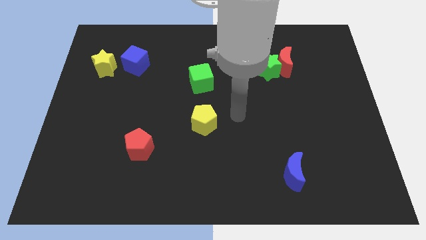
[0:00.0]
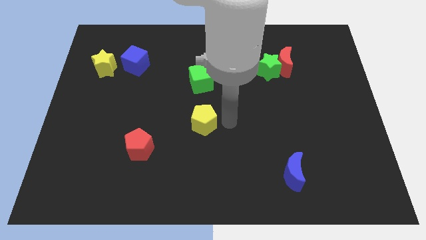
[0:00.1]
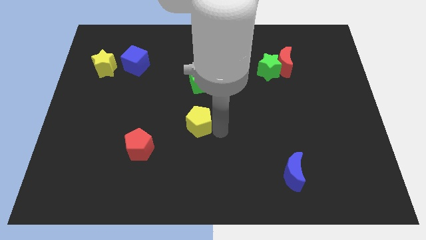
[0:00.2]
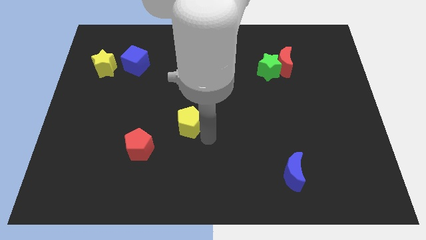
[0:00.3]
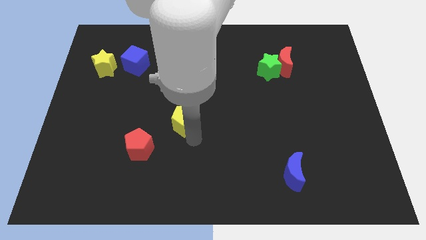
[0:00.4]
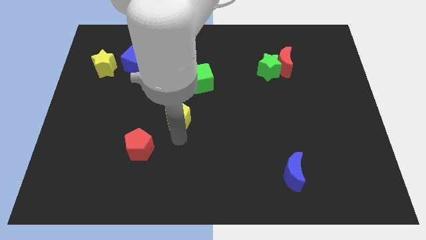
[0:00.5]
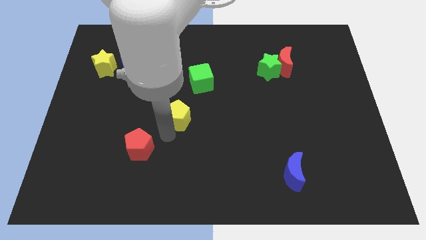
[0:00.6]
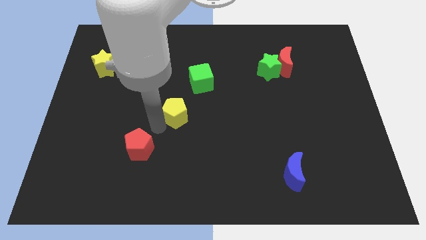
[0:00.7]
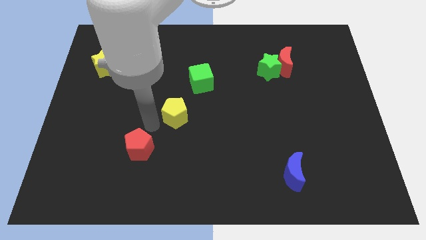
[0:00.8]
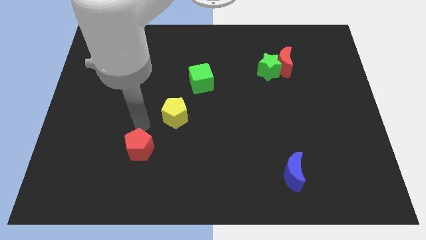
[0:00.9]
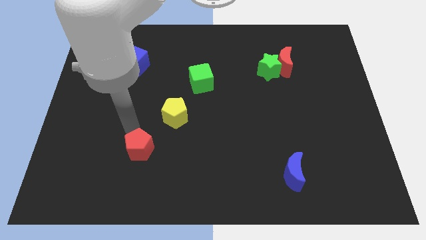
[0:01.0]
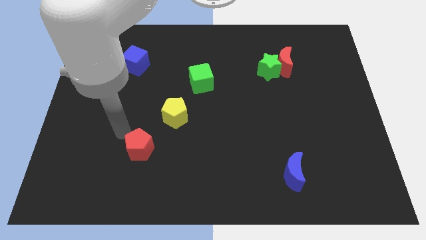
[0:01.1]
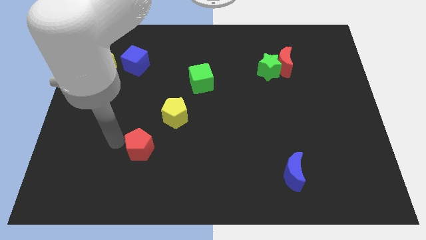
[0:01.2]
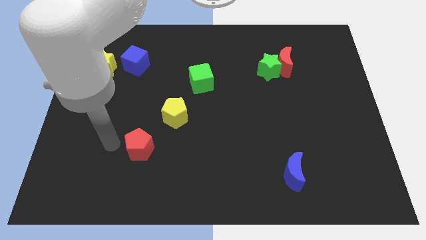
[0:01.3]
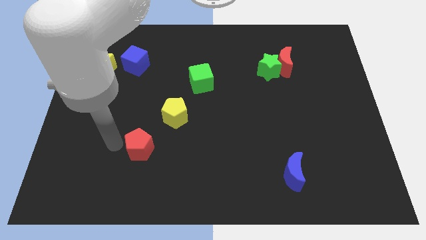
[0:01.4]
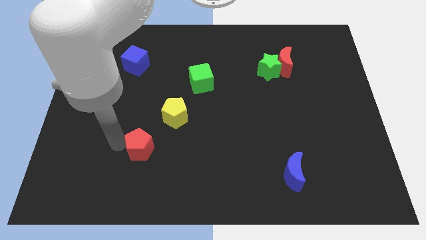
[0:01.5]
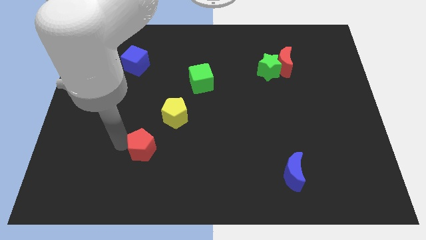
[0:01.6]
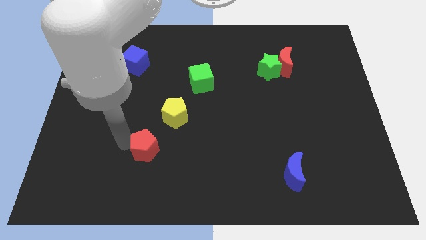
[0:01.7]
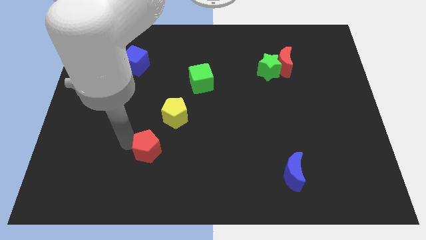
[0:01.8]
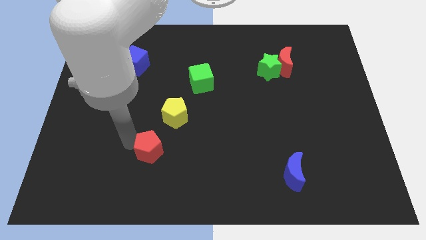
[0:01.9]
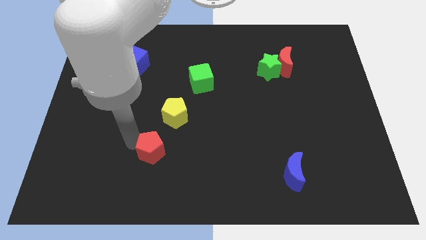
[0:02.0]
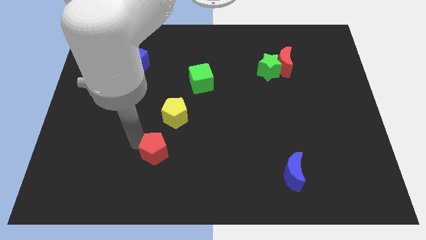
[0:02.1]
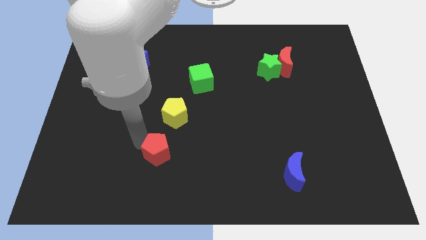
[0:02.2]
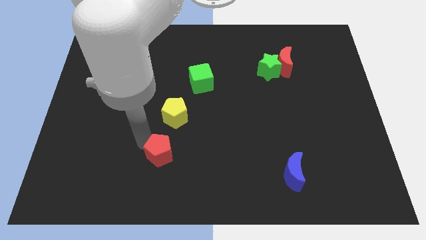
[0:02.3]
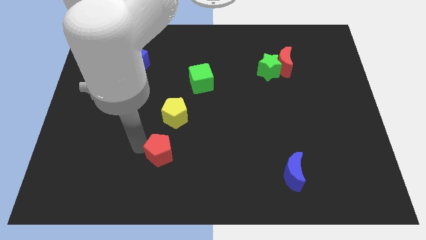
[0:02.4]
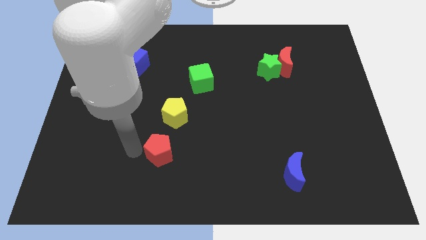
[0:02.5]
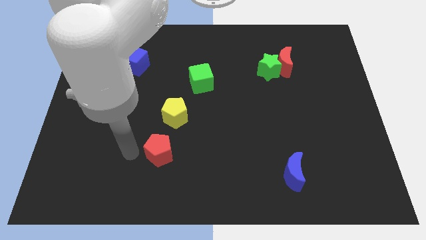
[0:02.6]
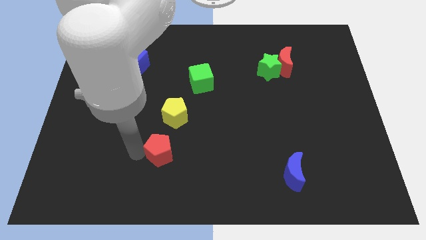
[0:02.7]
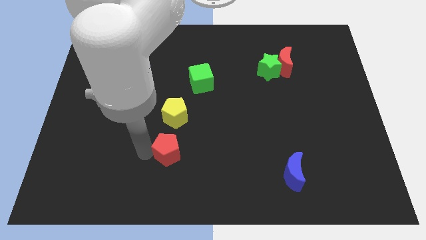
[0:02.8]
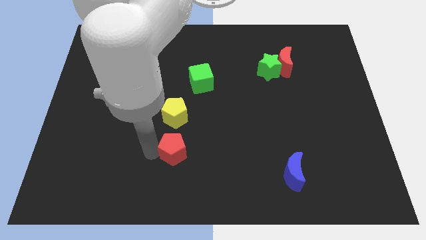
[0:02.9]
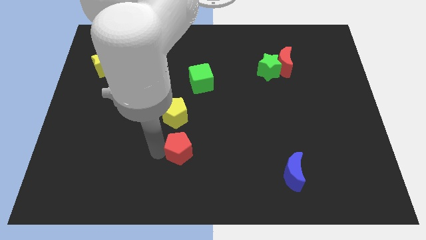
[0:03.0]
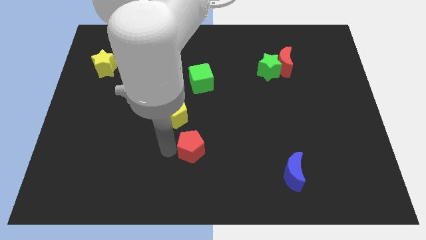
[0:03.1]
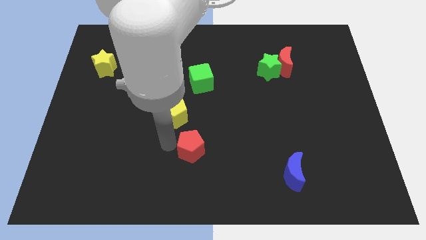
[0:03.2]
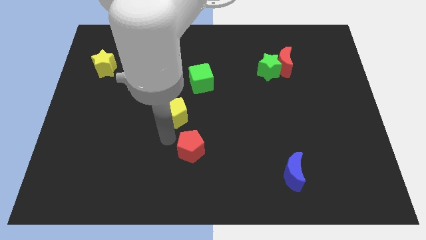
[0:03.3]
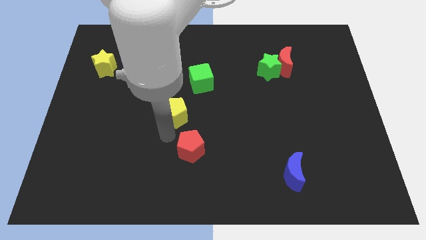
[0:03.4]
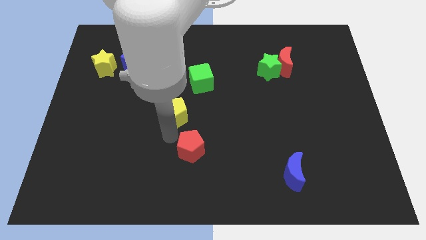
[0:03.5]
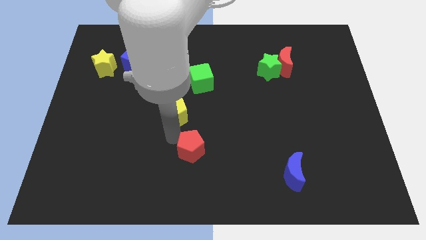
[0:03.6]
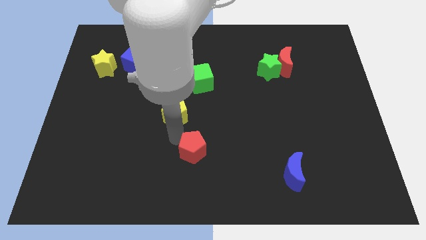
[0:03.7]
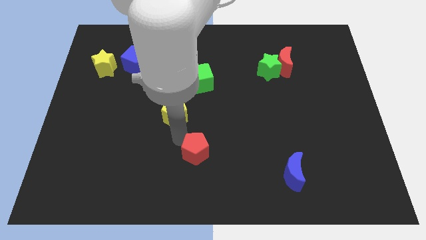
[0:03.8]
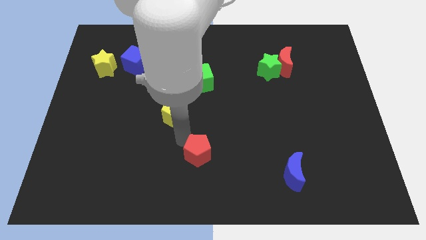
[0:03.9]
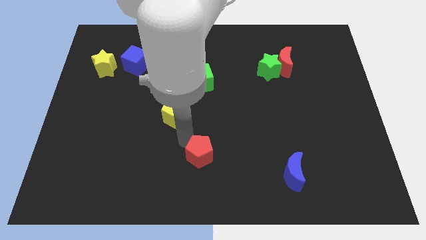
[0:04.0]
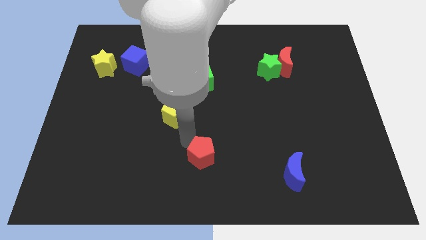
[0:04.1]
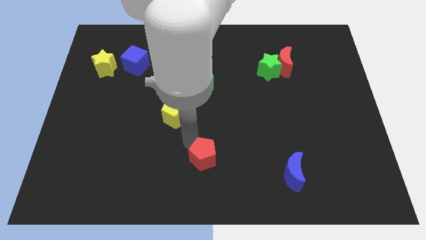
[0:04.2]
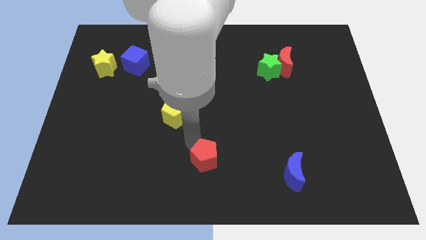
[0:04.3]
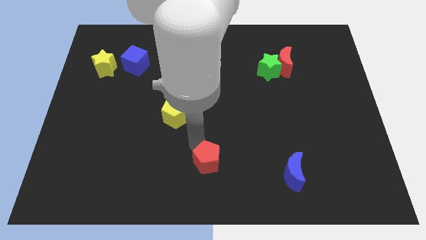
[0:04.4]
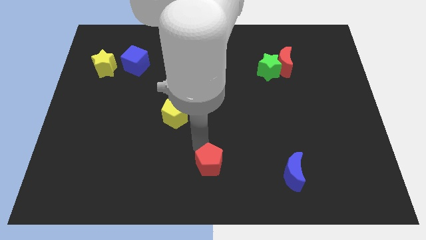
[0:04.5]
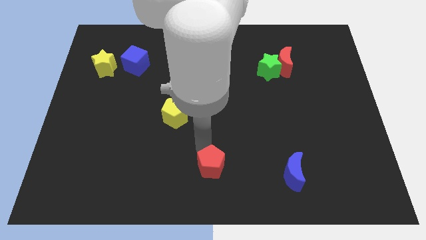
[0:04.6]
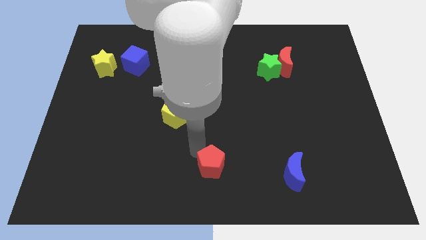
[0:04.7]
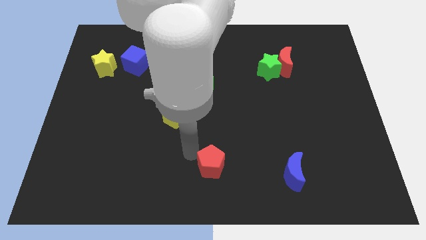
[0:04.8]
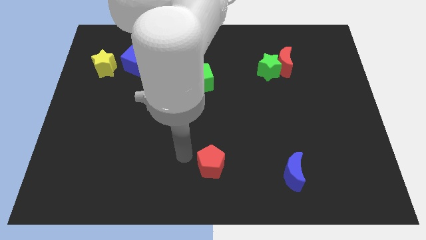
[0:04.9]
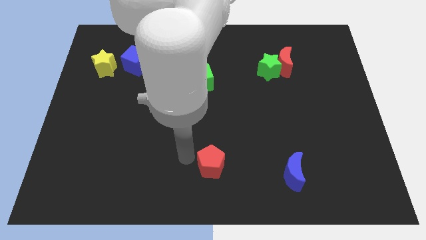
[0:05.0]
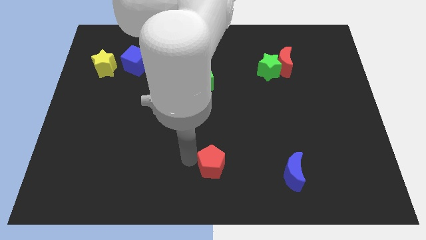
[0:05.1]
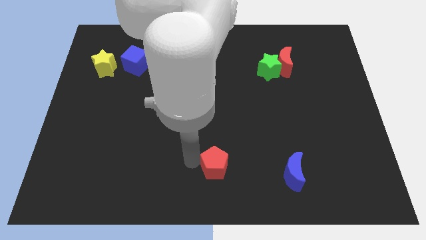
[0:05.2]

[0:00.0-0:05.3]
slide the red pentagon left of the blue moon

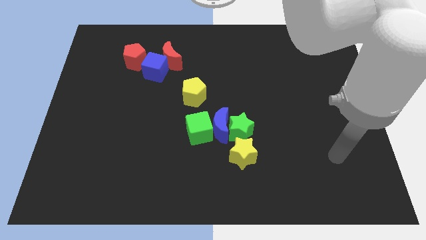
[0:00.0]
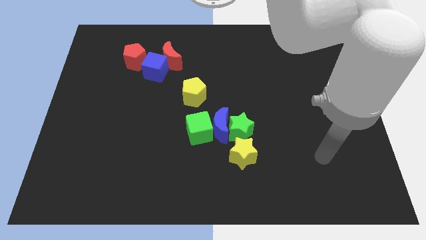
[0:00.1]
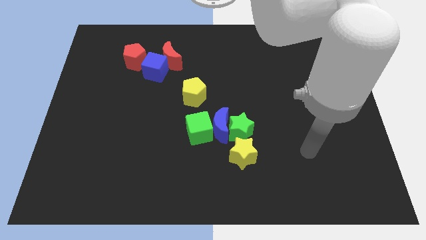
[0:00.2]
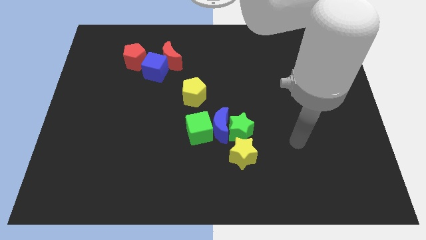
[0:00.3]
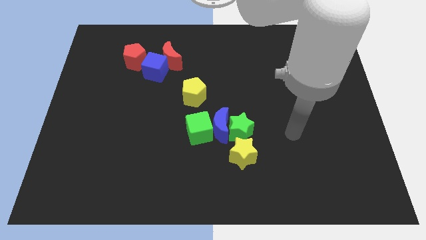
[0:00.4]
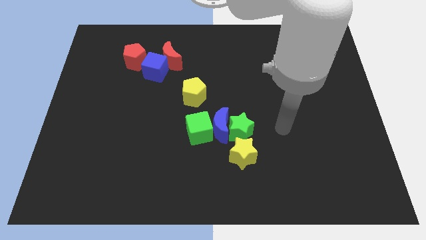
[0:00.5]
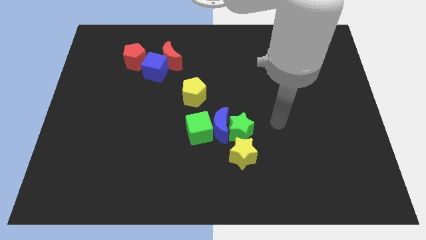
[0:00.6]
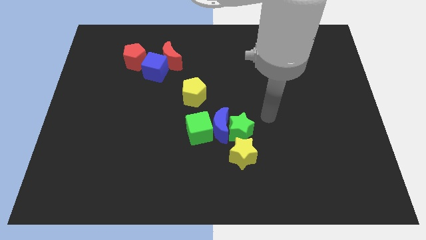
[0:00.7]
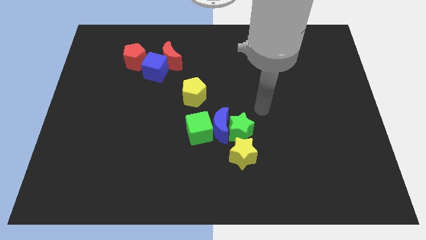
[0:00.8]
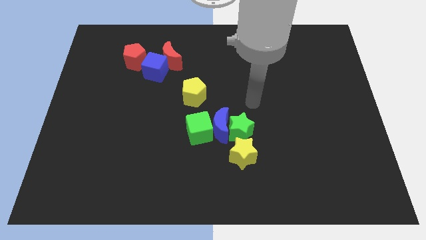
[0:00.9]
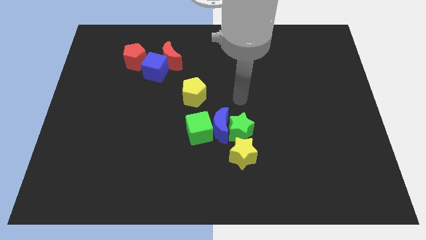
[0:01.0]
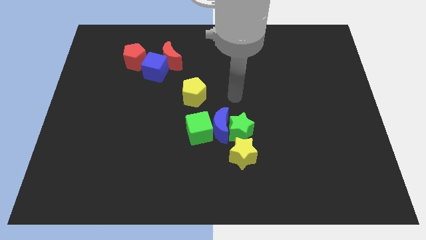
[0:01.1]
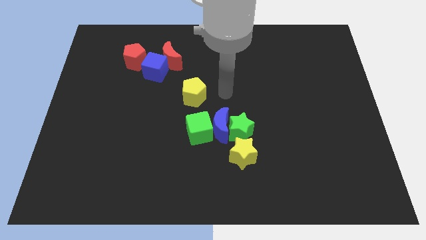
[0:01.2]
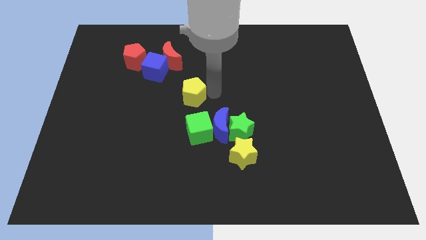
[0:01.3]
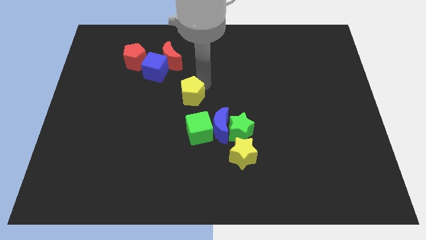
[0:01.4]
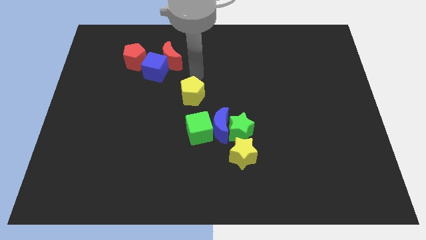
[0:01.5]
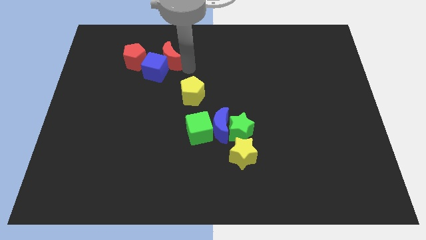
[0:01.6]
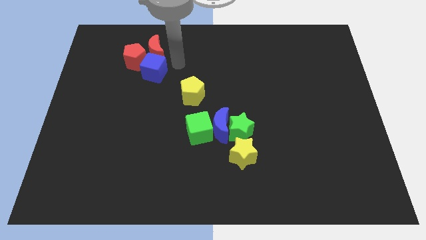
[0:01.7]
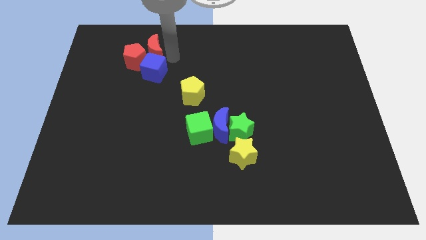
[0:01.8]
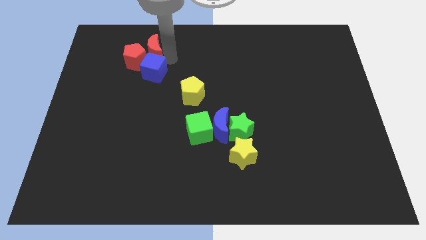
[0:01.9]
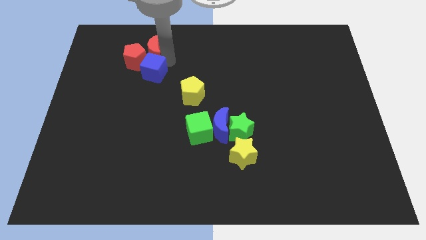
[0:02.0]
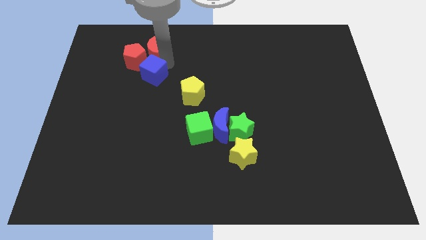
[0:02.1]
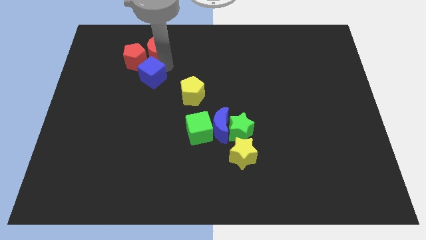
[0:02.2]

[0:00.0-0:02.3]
slide the blue cube to the bottom side of the red pentagon

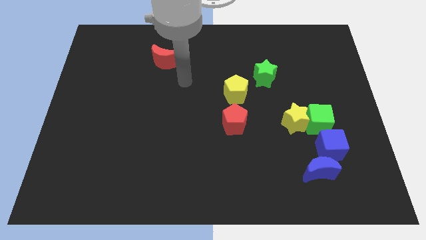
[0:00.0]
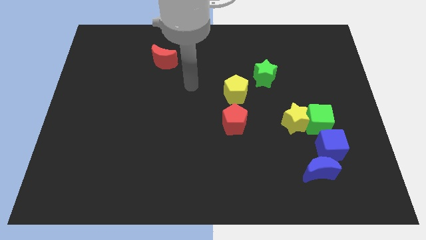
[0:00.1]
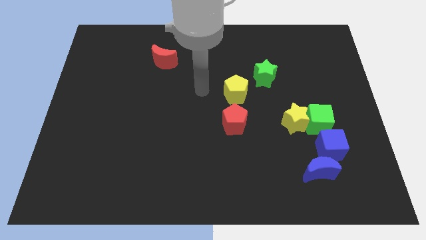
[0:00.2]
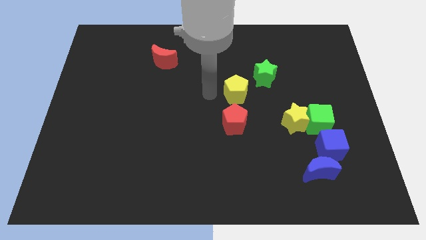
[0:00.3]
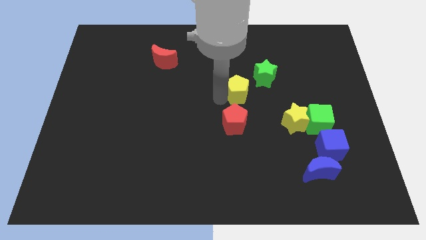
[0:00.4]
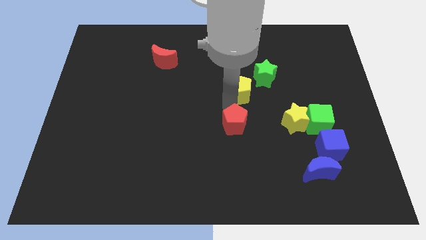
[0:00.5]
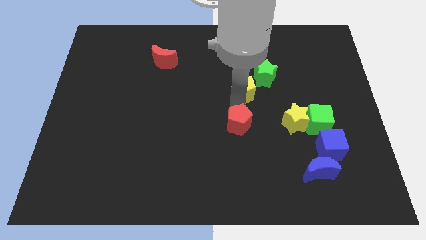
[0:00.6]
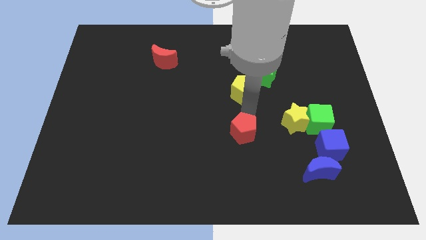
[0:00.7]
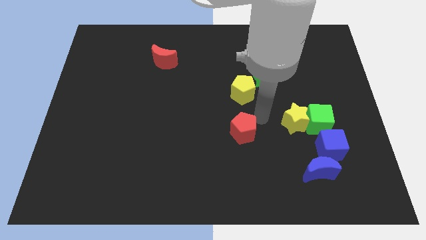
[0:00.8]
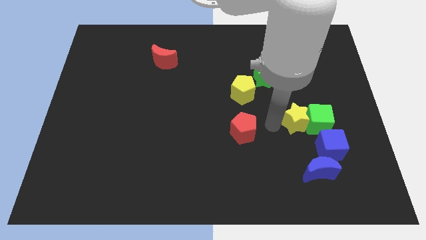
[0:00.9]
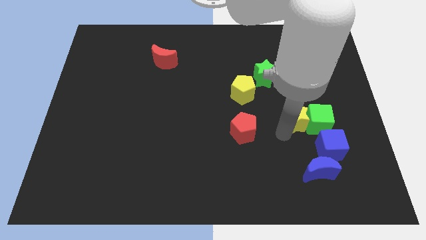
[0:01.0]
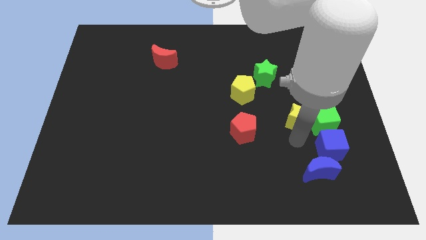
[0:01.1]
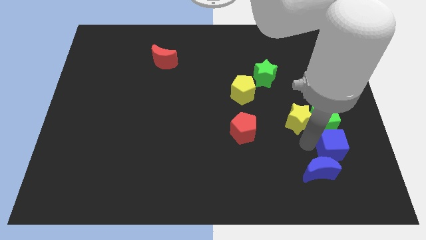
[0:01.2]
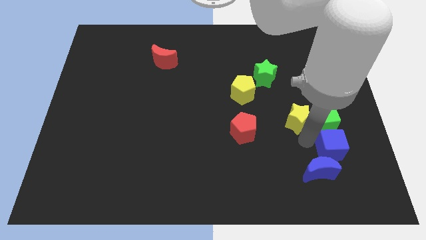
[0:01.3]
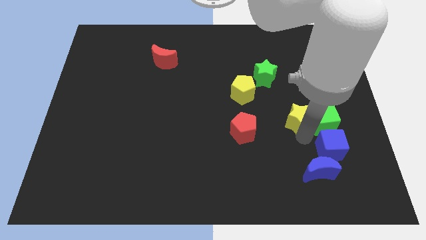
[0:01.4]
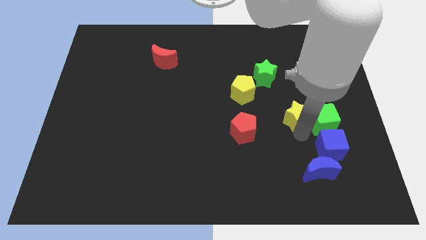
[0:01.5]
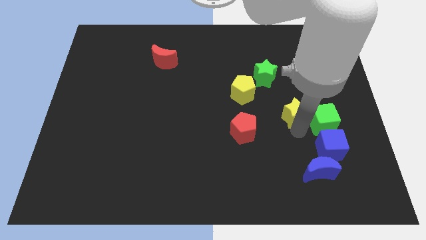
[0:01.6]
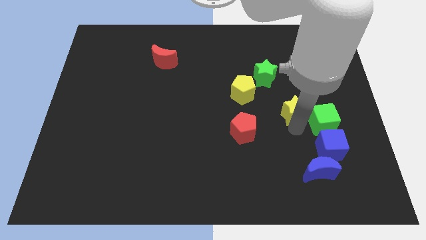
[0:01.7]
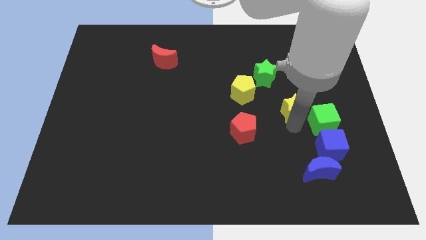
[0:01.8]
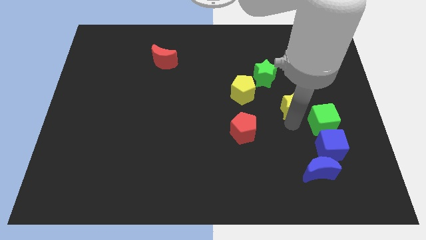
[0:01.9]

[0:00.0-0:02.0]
slide the yellow star diagonally down and to the right of the green star
